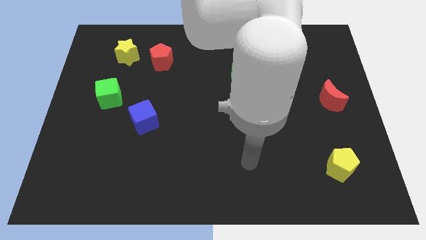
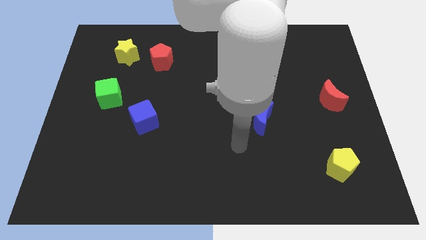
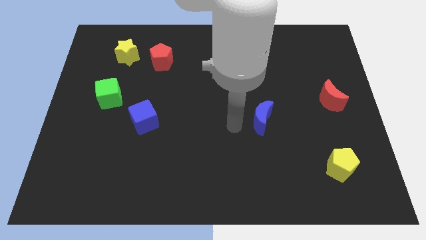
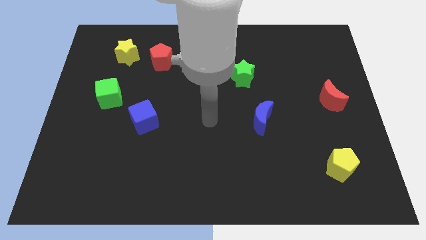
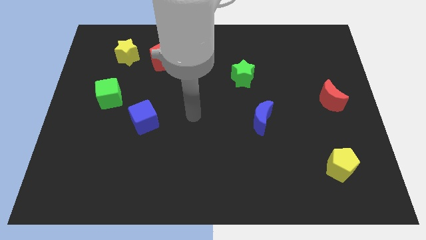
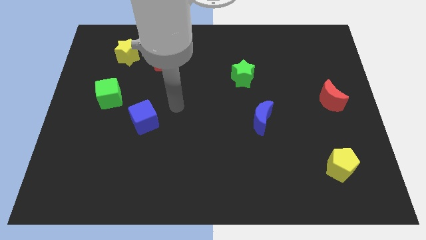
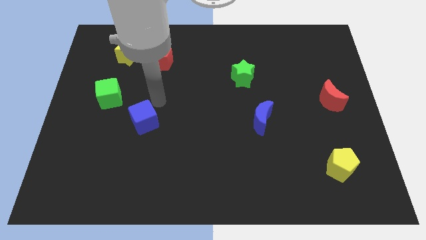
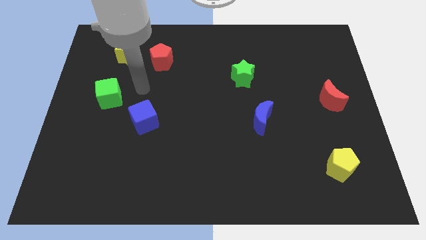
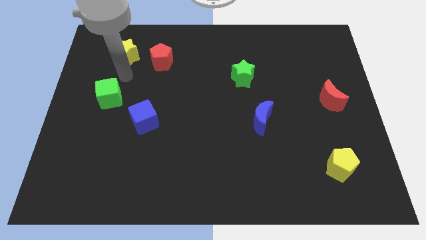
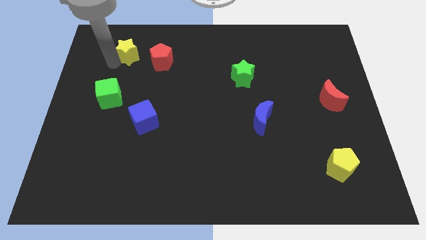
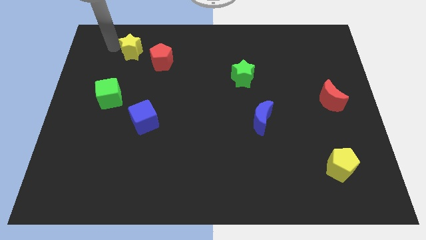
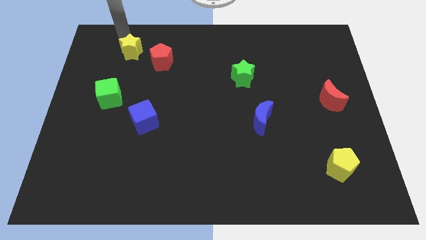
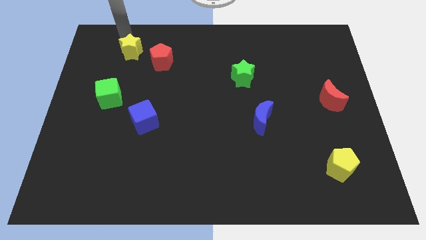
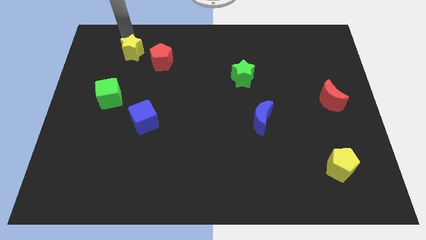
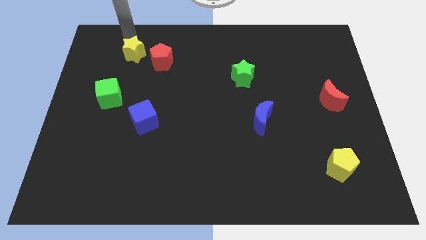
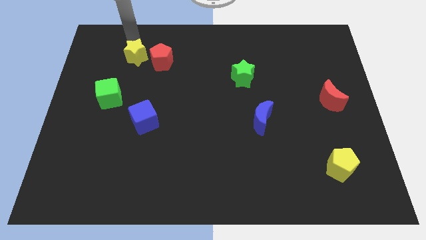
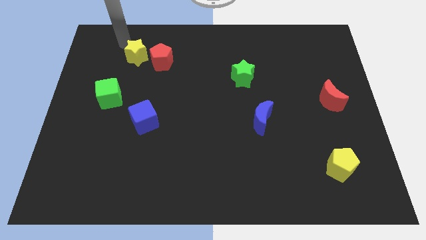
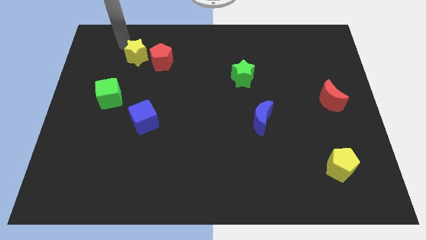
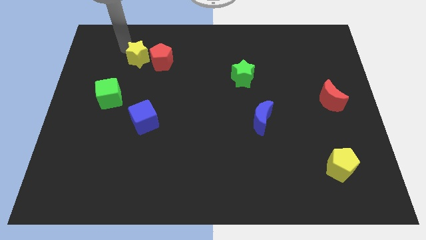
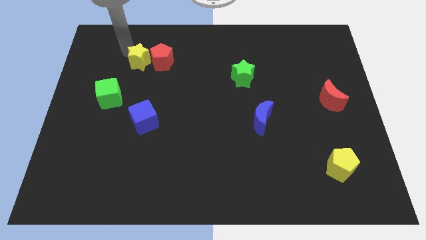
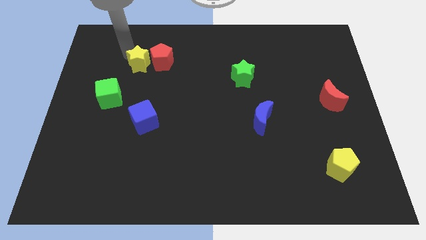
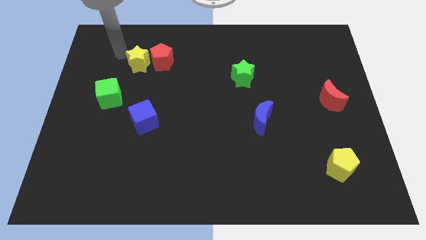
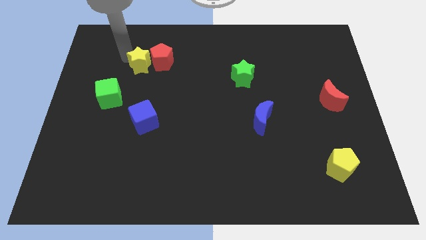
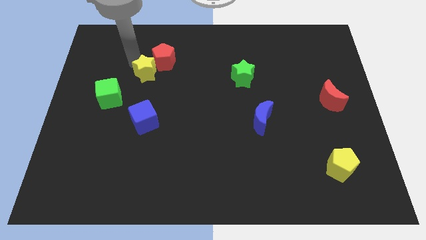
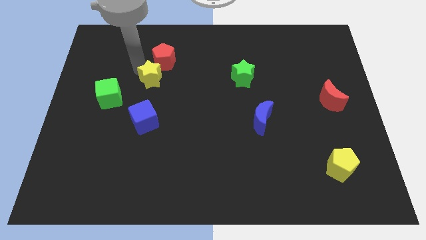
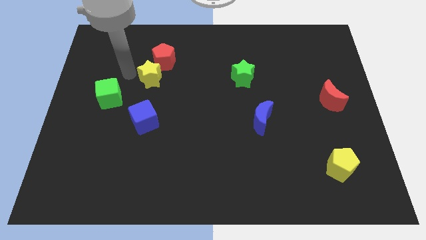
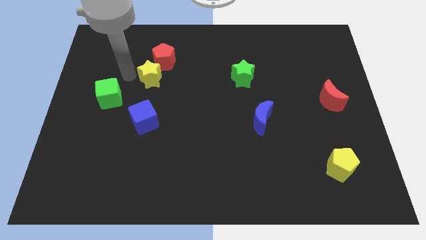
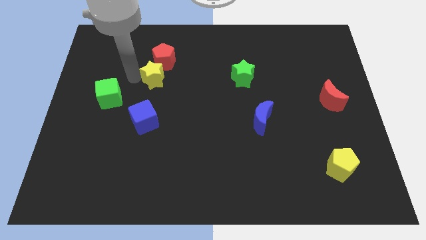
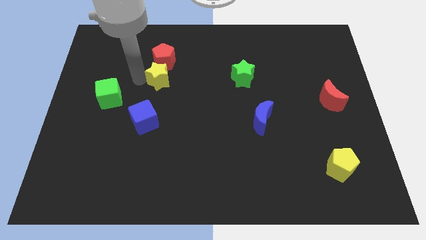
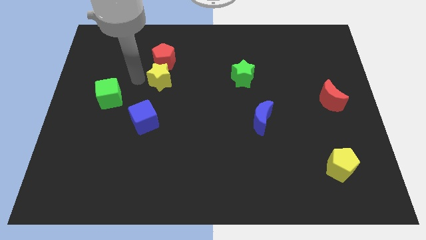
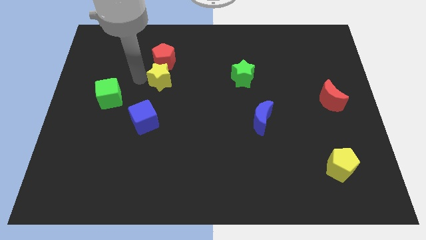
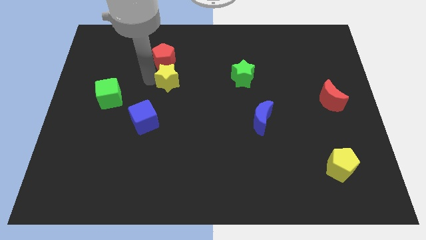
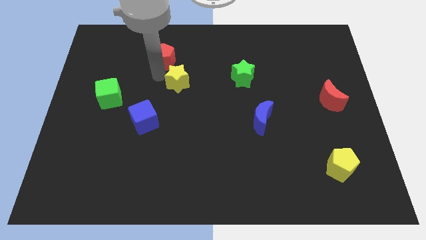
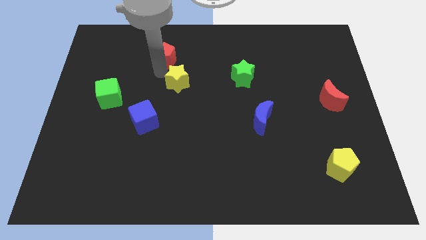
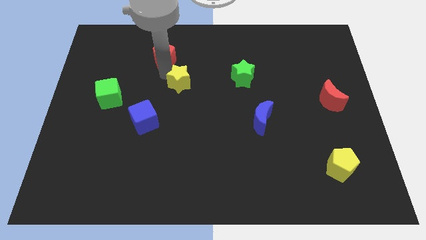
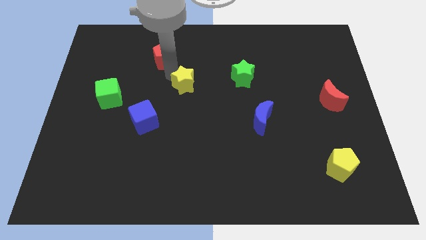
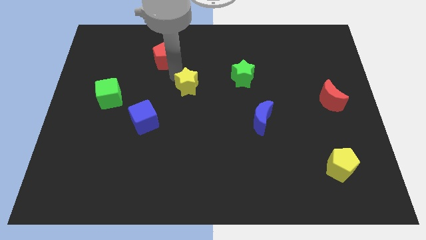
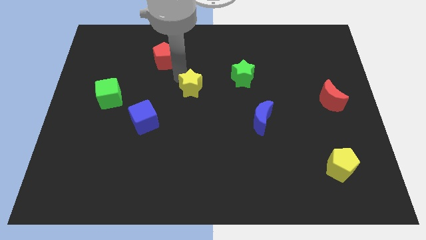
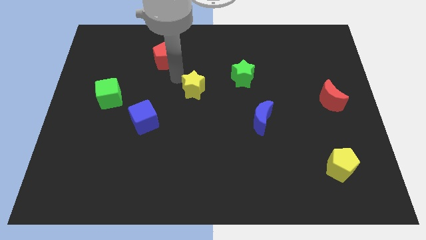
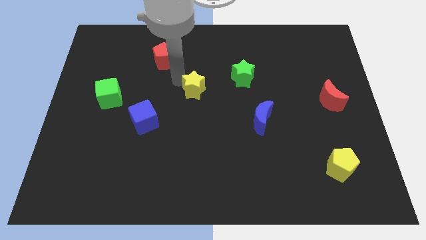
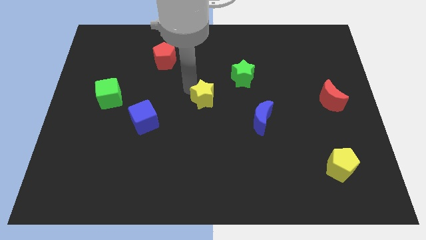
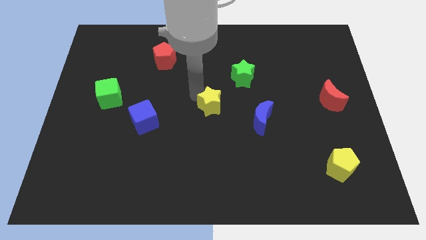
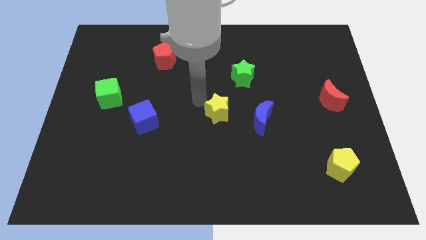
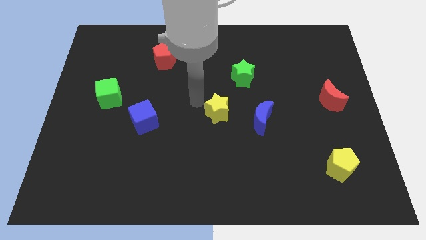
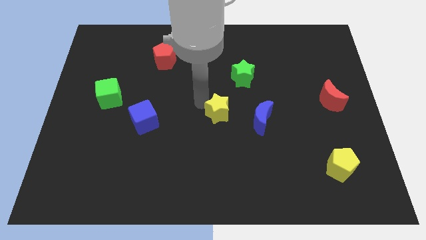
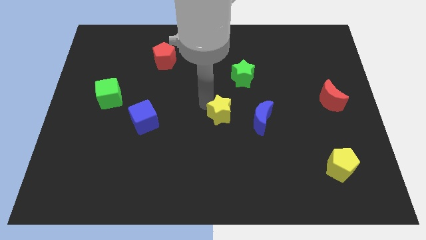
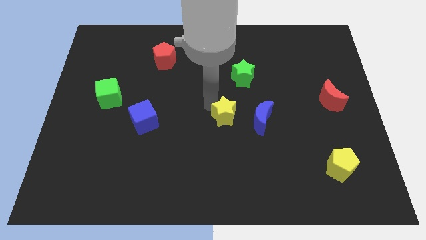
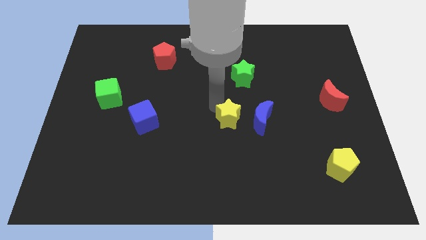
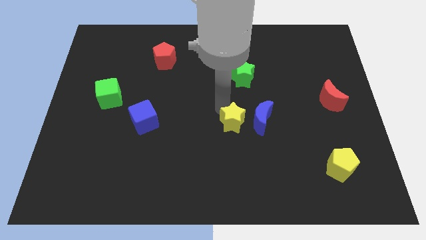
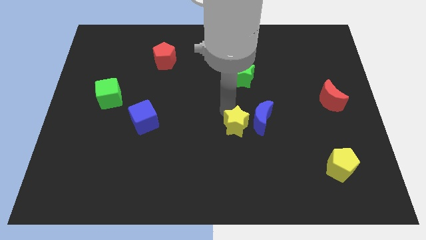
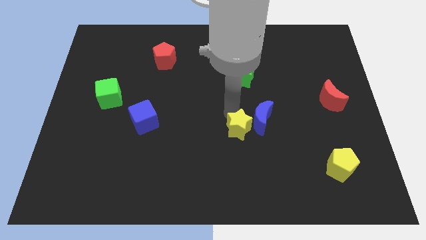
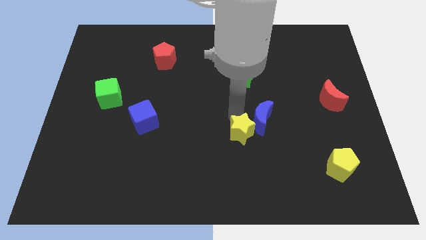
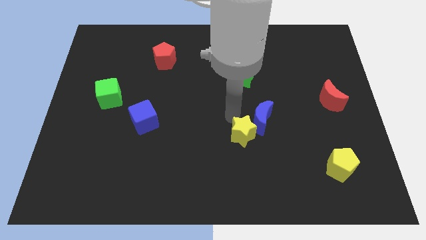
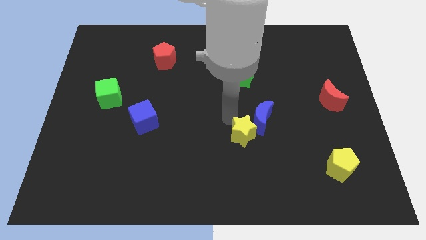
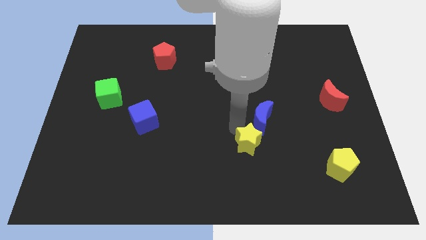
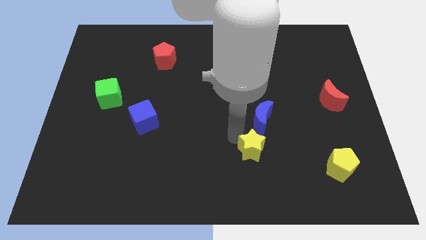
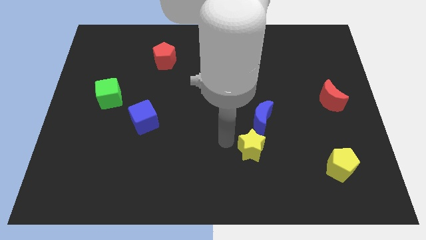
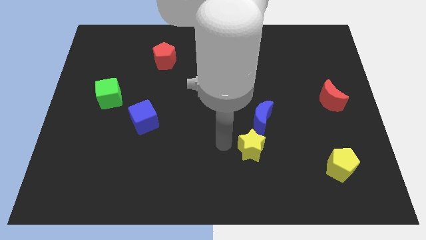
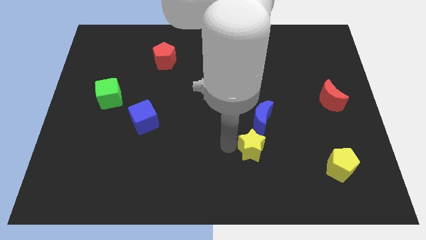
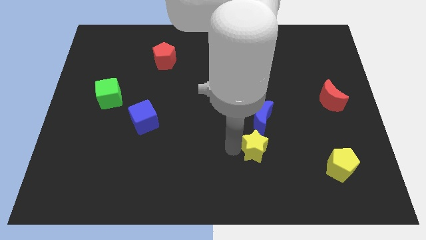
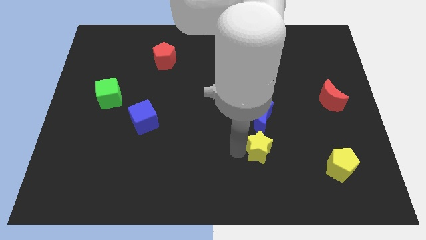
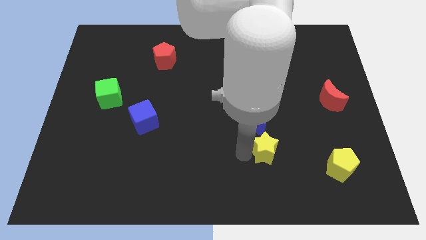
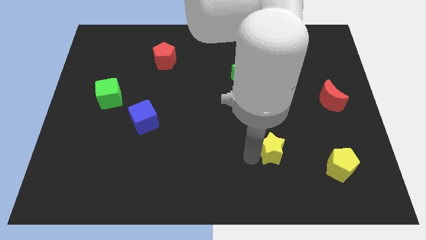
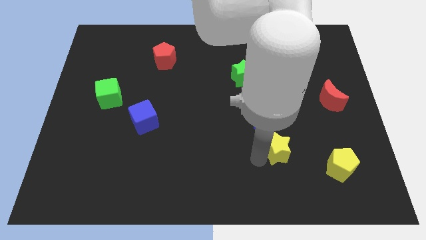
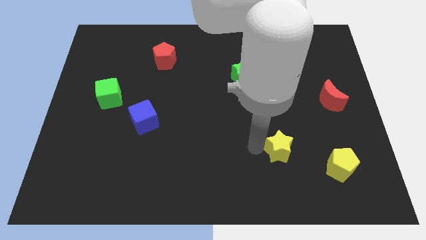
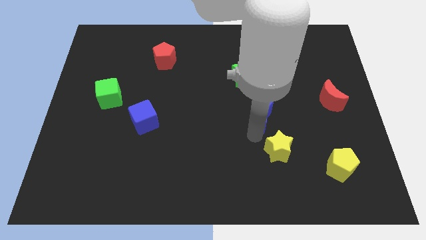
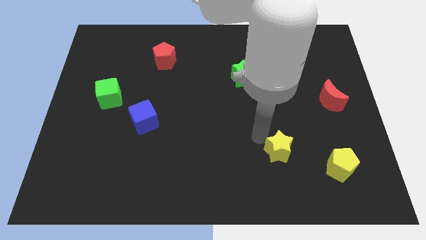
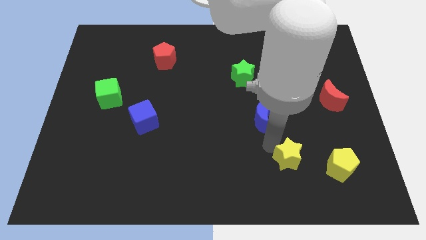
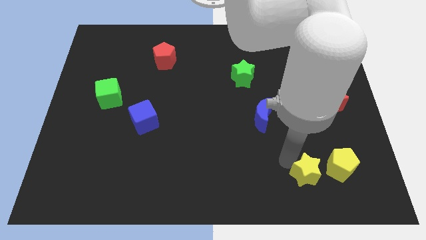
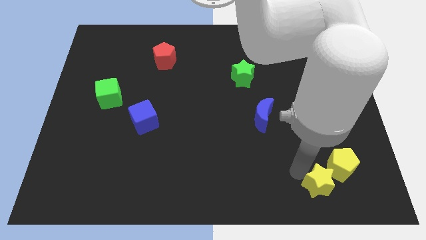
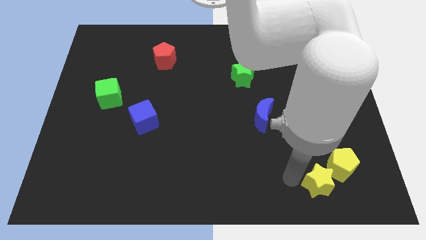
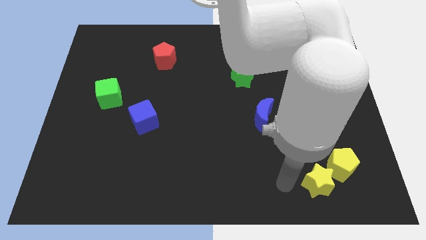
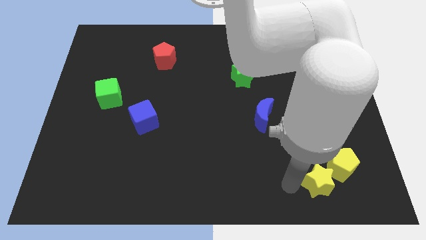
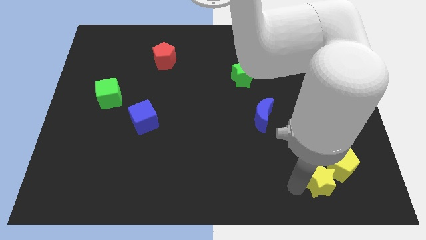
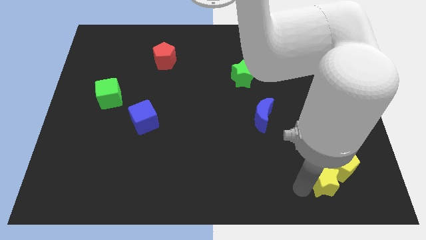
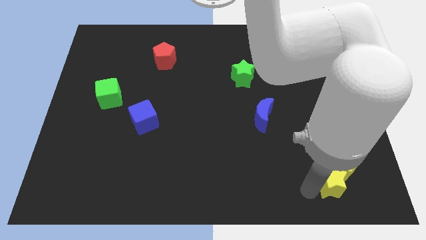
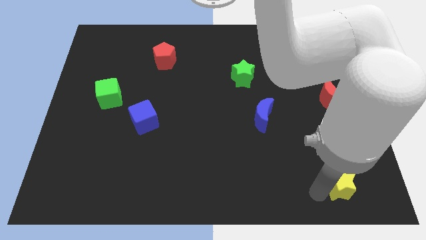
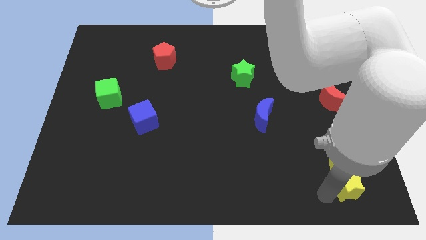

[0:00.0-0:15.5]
slide the yellow star to the bottom right corner
